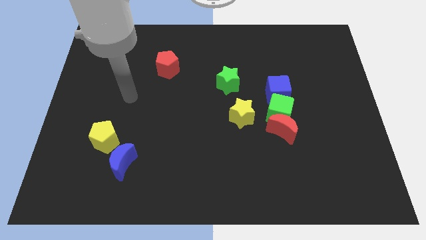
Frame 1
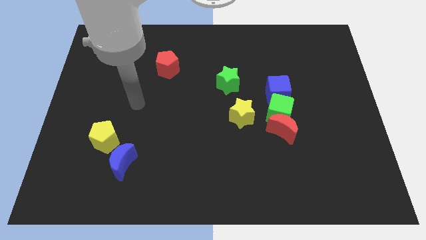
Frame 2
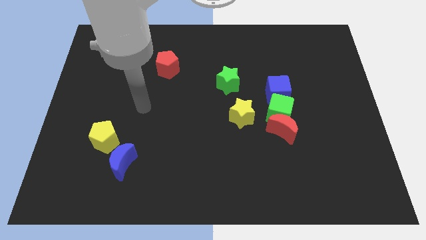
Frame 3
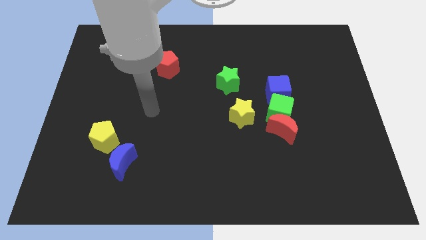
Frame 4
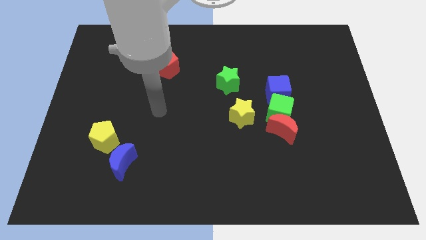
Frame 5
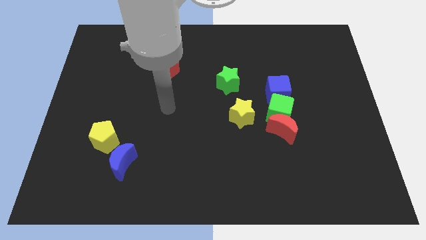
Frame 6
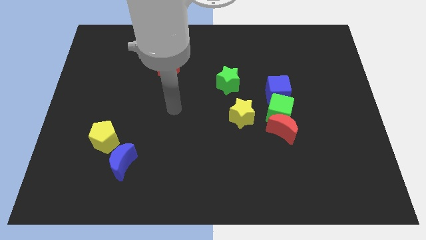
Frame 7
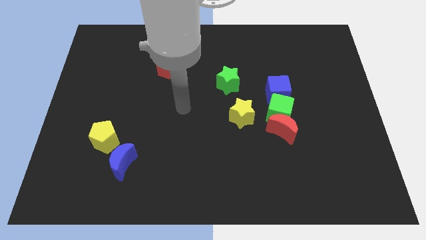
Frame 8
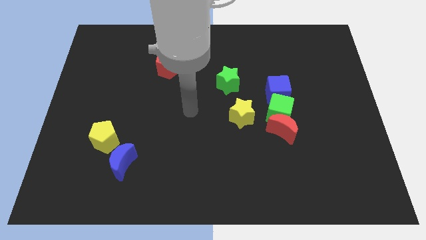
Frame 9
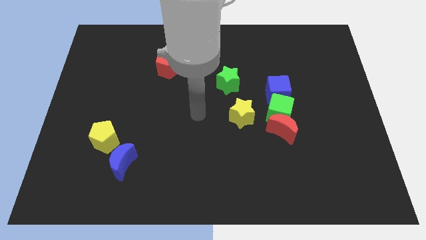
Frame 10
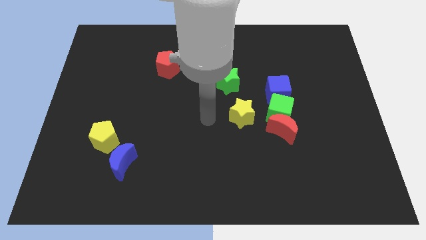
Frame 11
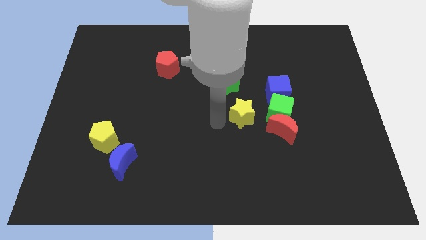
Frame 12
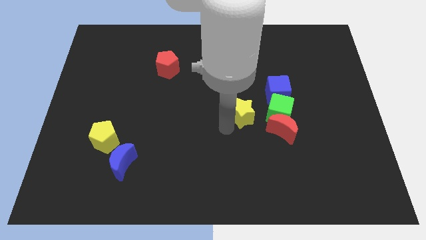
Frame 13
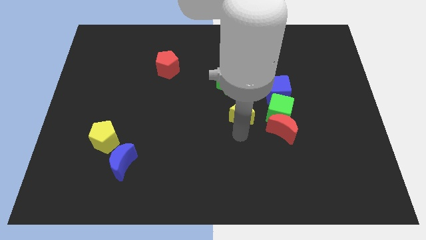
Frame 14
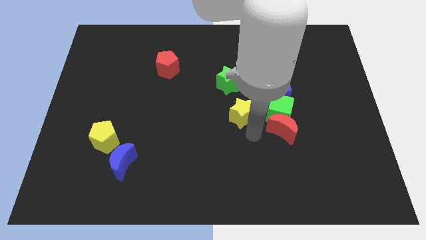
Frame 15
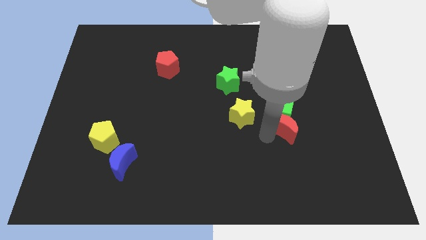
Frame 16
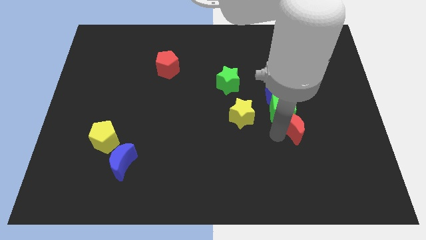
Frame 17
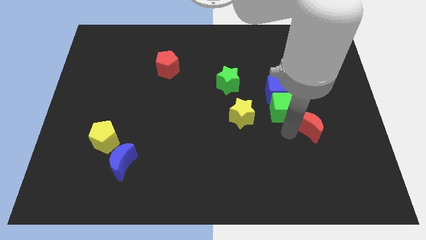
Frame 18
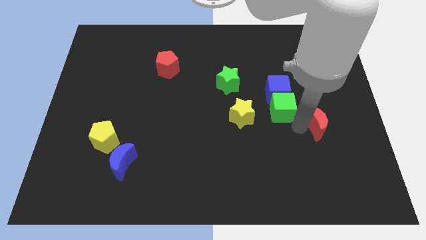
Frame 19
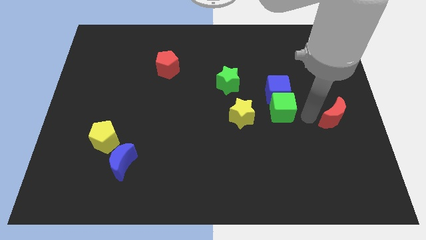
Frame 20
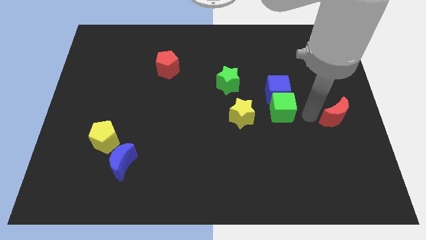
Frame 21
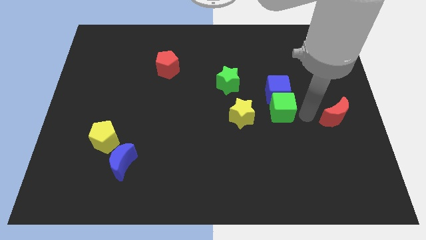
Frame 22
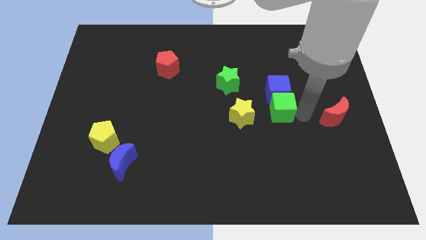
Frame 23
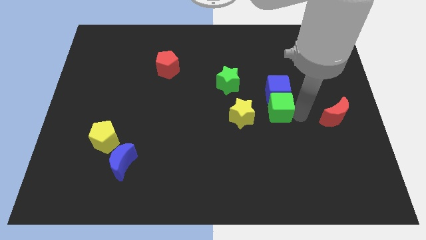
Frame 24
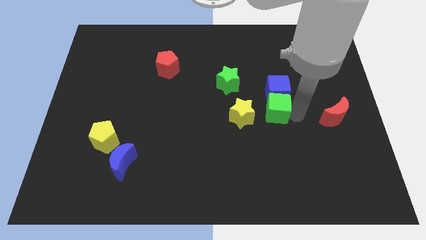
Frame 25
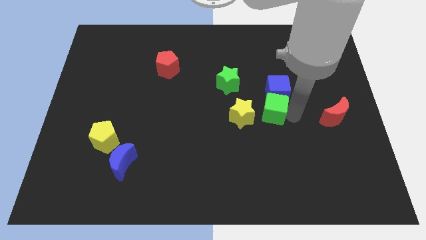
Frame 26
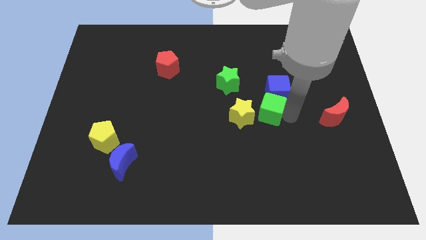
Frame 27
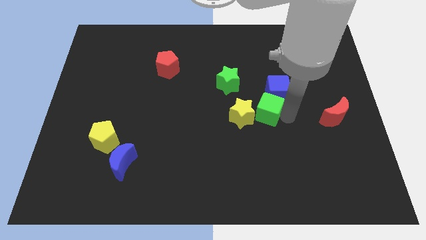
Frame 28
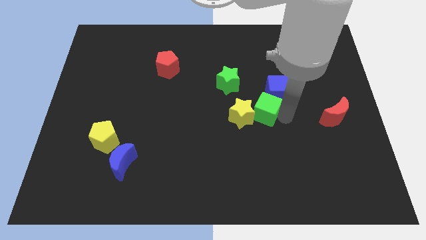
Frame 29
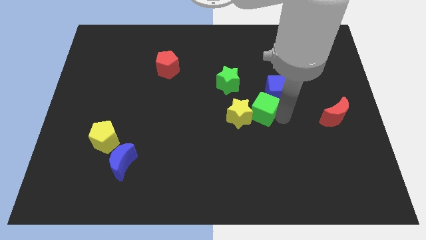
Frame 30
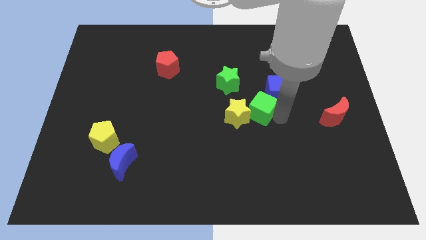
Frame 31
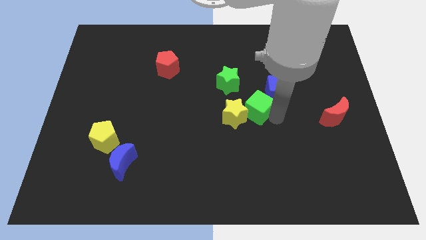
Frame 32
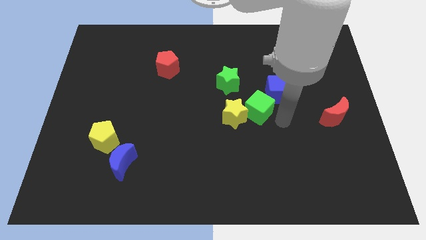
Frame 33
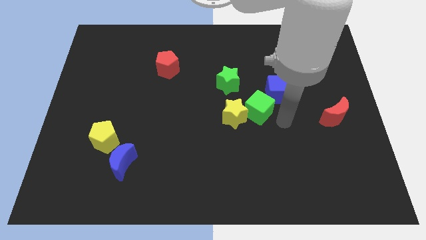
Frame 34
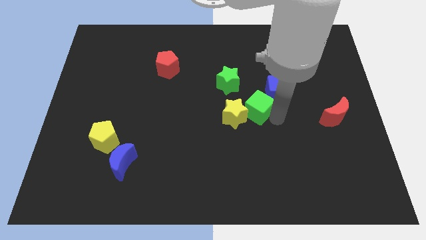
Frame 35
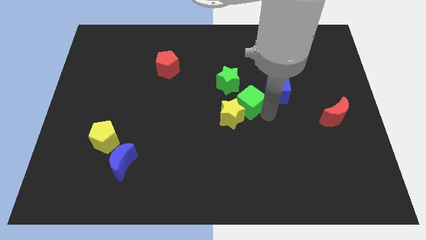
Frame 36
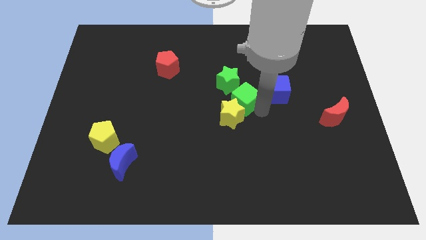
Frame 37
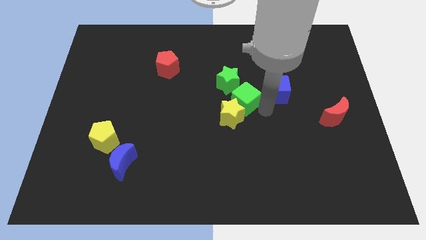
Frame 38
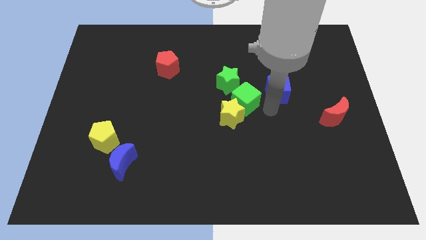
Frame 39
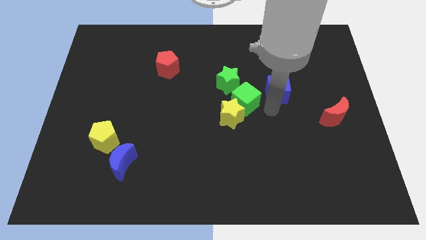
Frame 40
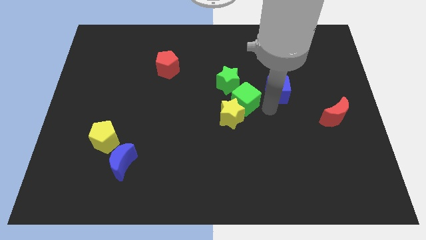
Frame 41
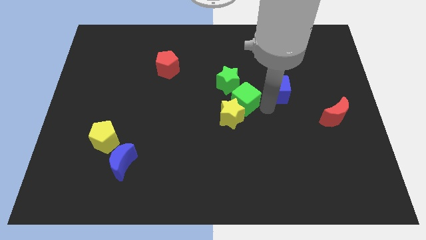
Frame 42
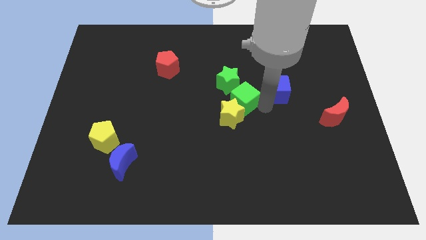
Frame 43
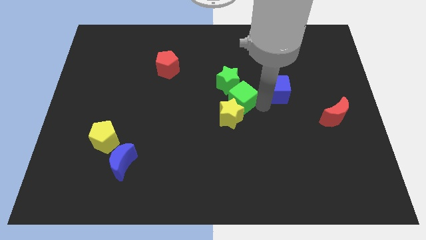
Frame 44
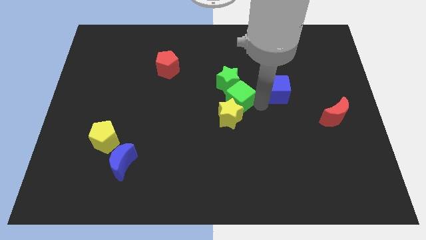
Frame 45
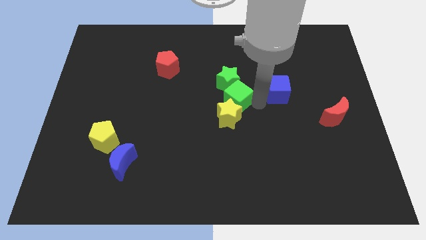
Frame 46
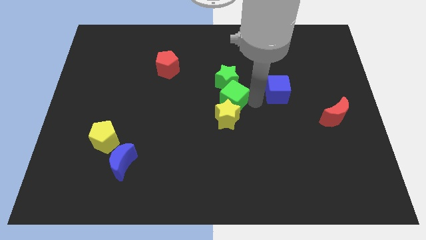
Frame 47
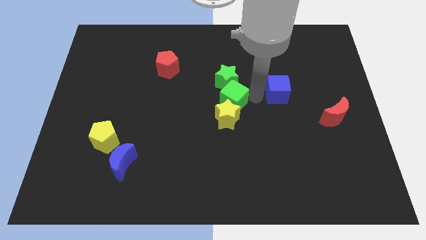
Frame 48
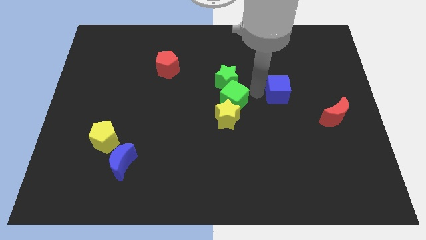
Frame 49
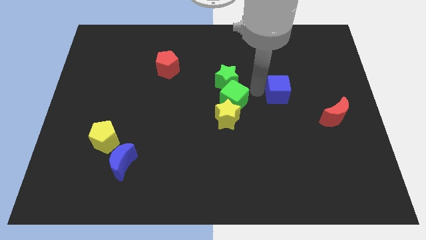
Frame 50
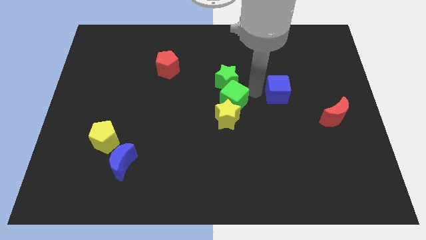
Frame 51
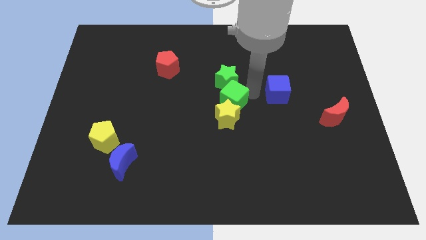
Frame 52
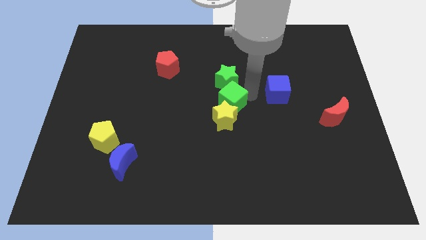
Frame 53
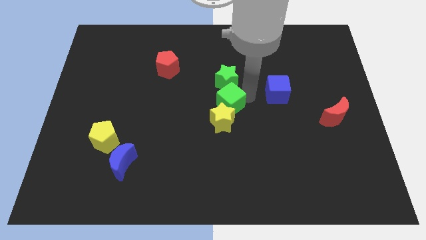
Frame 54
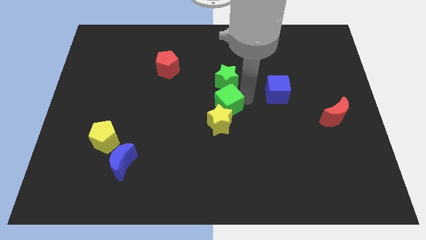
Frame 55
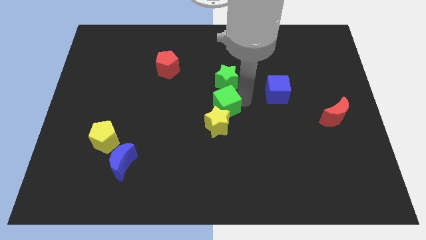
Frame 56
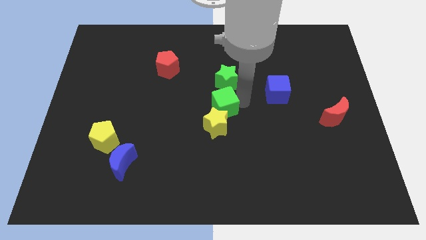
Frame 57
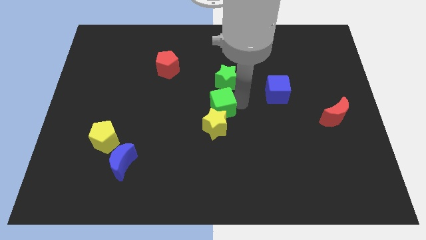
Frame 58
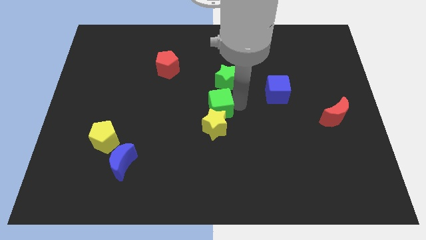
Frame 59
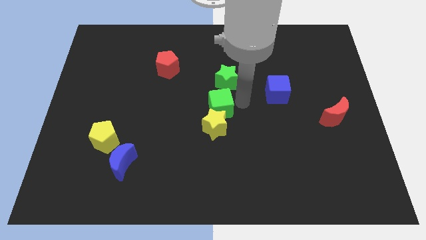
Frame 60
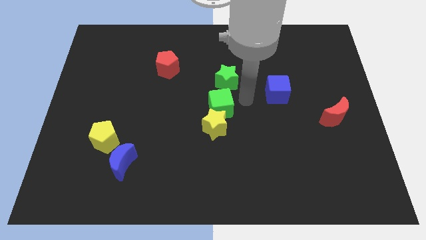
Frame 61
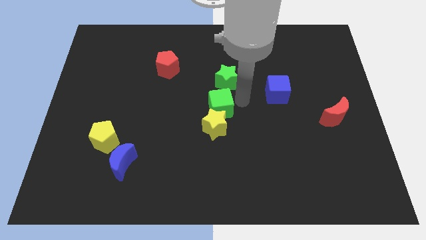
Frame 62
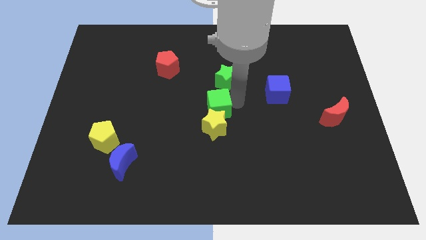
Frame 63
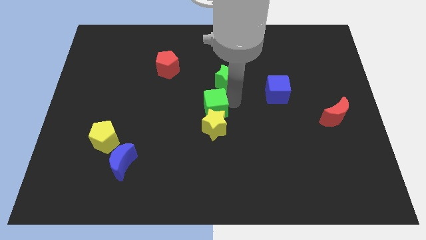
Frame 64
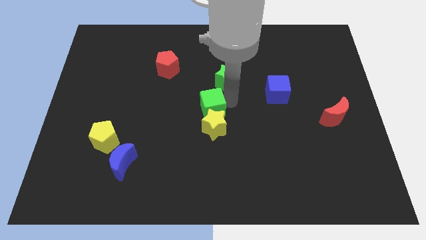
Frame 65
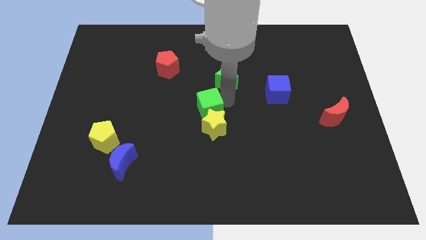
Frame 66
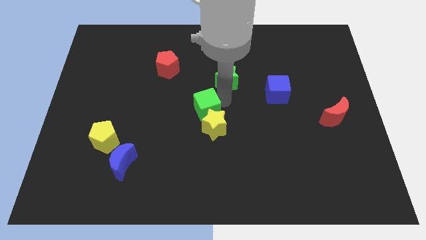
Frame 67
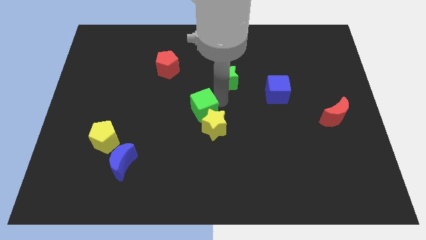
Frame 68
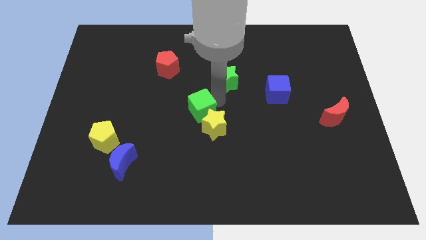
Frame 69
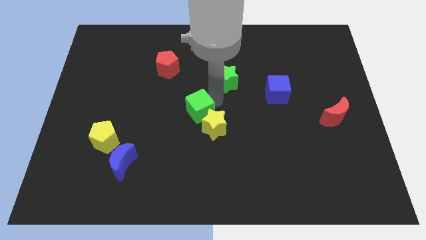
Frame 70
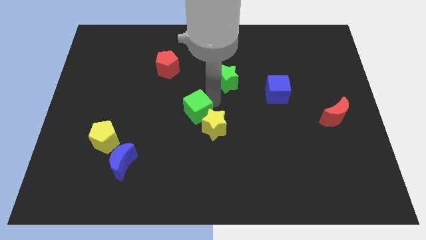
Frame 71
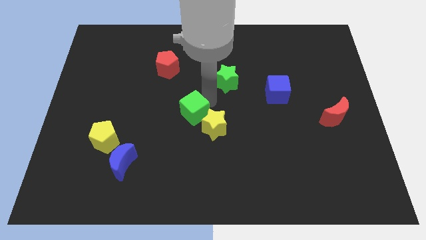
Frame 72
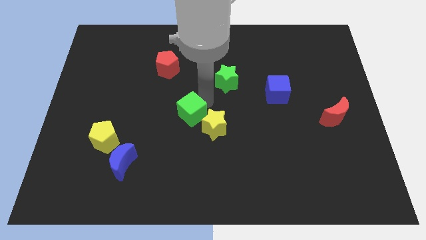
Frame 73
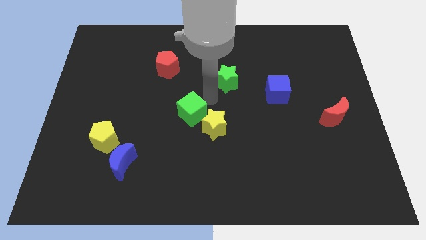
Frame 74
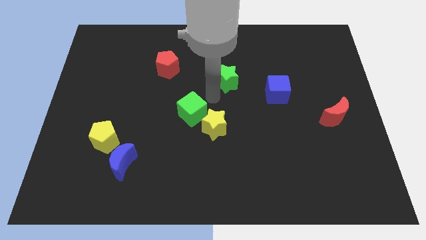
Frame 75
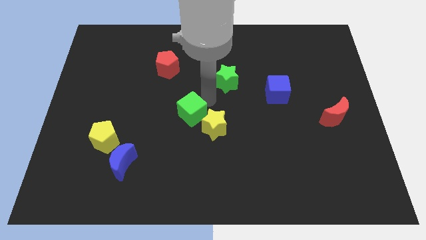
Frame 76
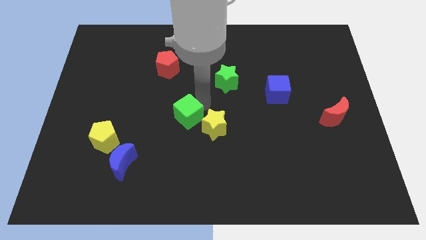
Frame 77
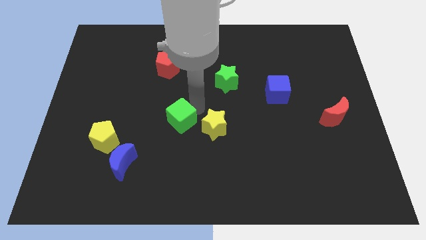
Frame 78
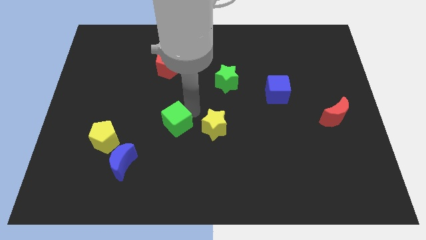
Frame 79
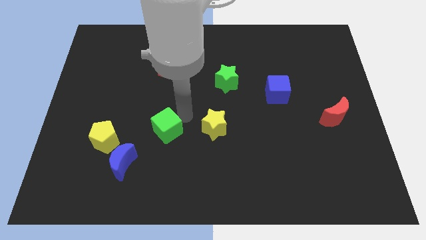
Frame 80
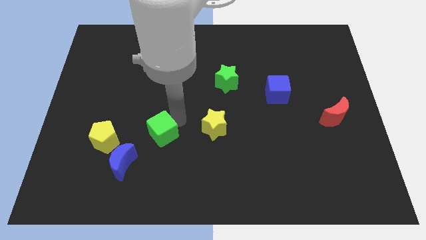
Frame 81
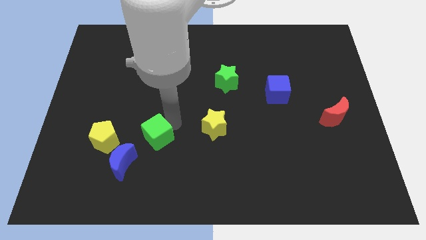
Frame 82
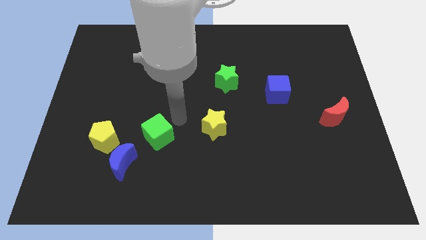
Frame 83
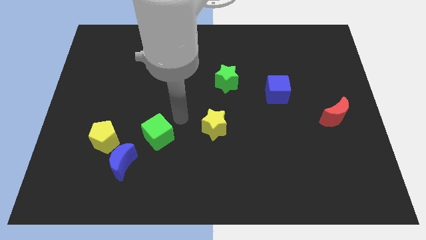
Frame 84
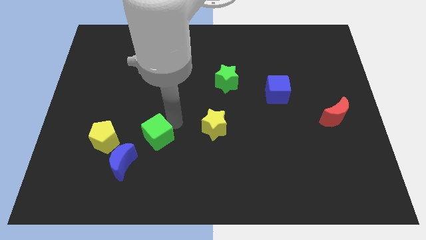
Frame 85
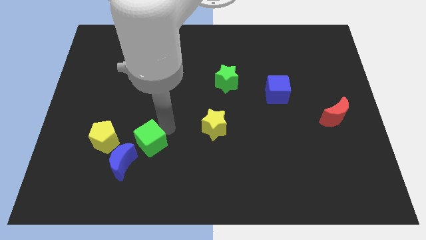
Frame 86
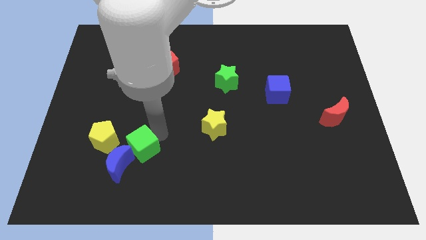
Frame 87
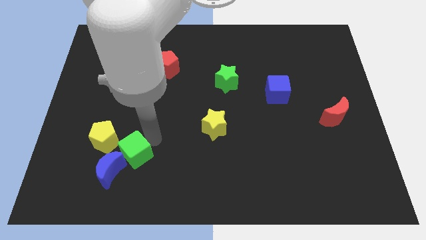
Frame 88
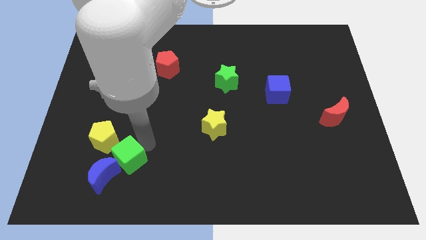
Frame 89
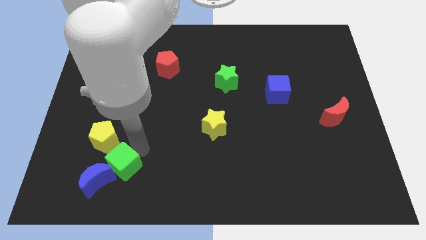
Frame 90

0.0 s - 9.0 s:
push the green cube next to the blue moon
